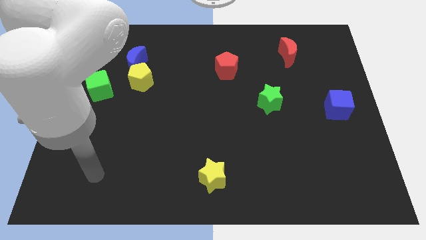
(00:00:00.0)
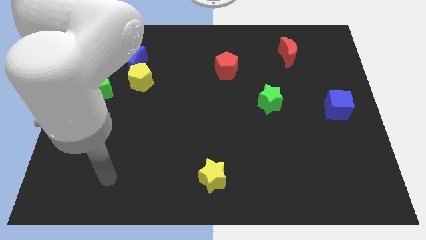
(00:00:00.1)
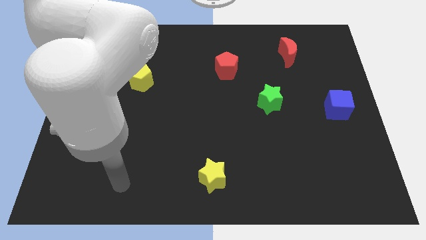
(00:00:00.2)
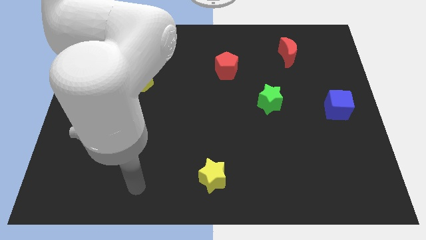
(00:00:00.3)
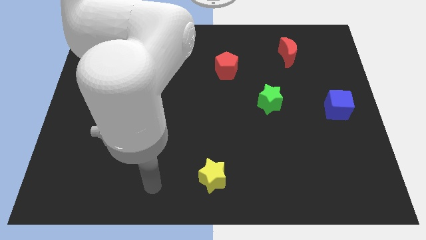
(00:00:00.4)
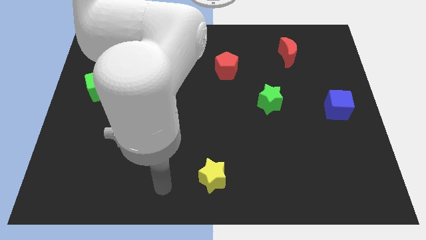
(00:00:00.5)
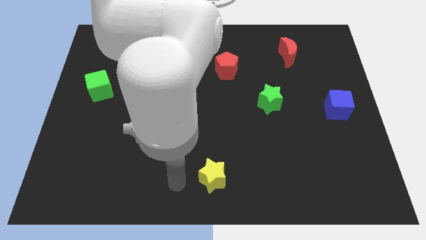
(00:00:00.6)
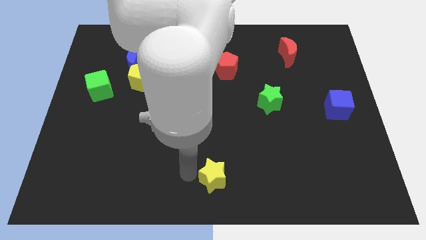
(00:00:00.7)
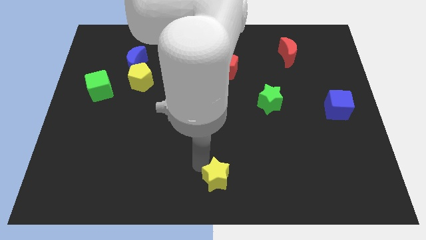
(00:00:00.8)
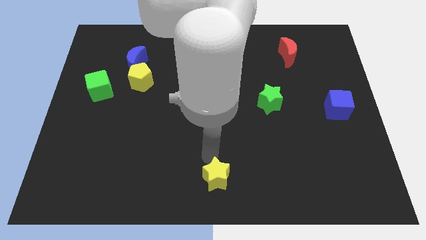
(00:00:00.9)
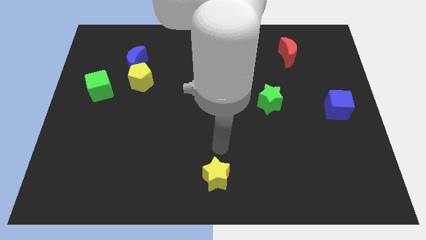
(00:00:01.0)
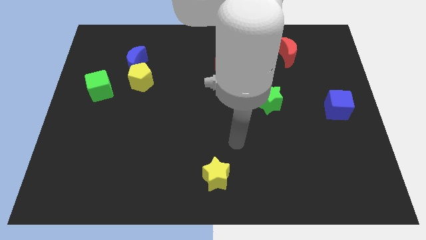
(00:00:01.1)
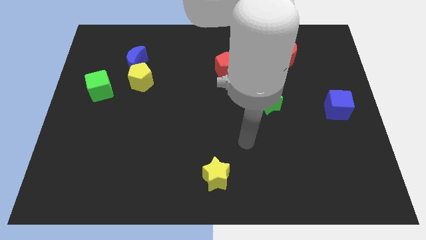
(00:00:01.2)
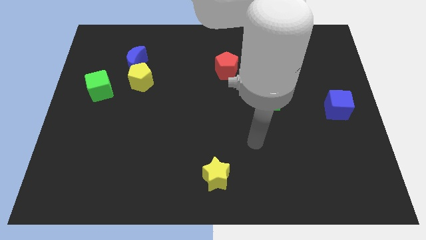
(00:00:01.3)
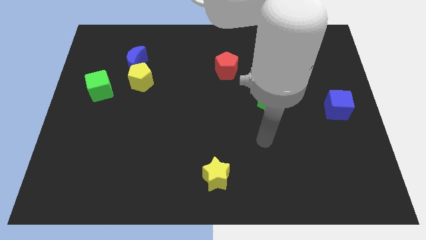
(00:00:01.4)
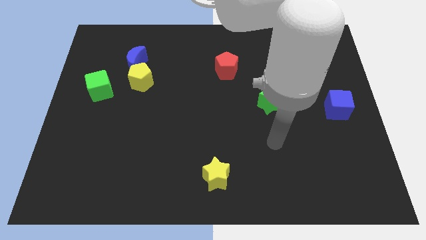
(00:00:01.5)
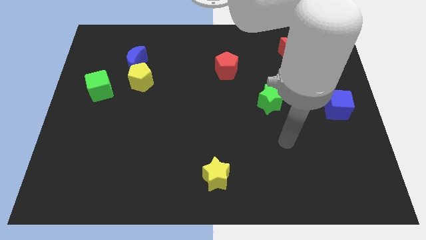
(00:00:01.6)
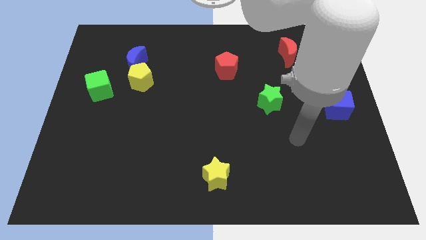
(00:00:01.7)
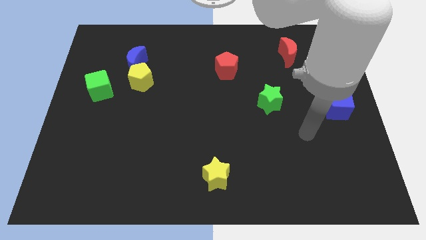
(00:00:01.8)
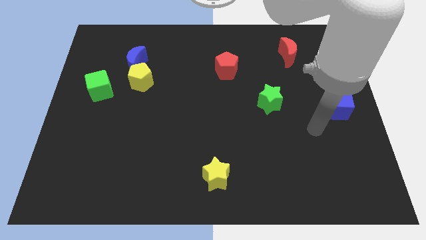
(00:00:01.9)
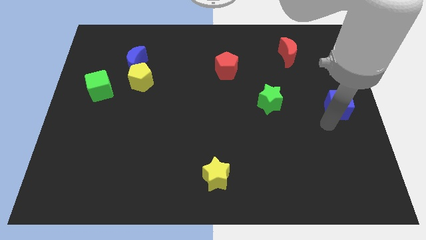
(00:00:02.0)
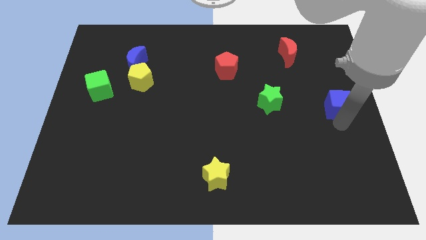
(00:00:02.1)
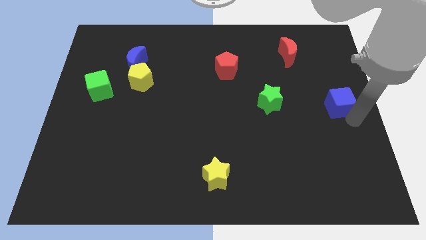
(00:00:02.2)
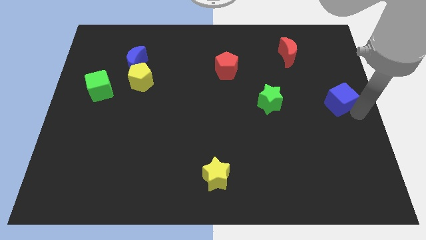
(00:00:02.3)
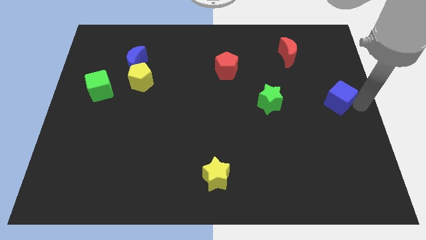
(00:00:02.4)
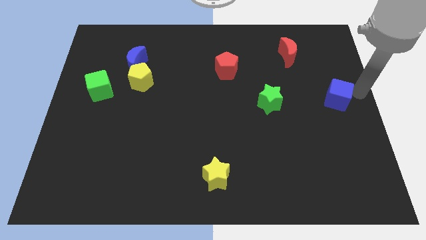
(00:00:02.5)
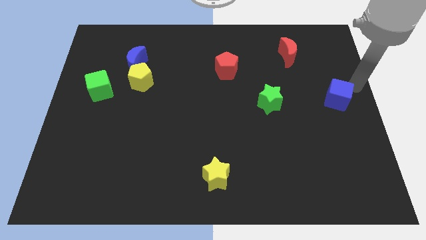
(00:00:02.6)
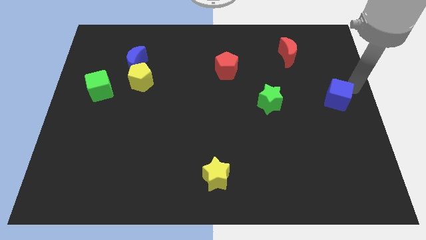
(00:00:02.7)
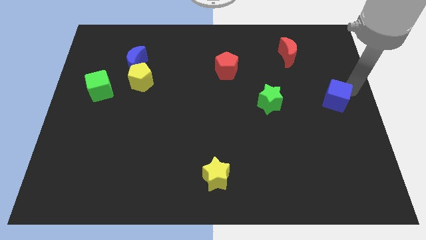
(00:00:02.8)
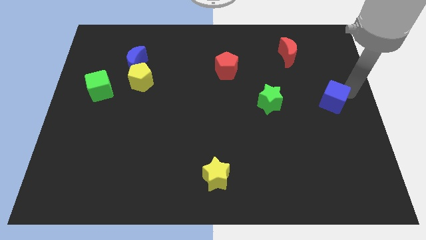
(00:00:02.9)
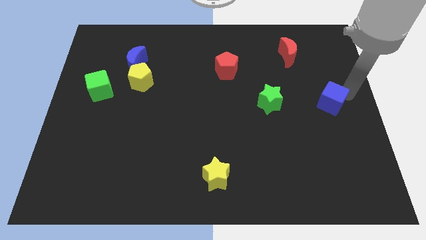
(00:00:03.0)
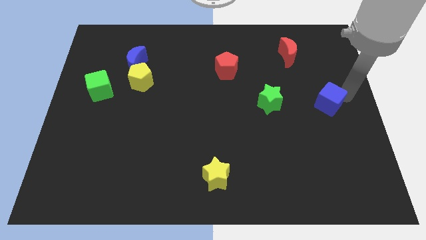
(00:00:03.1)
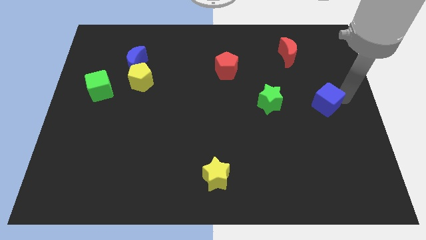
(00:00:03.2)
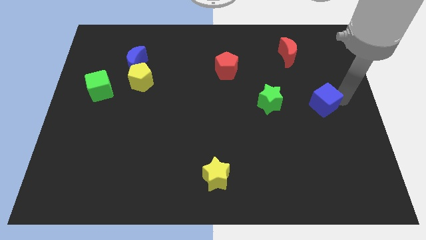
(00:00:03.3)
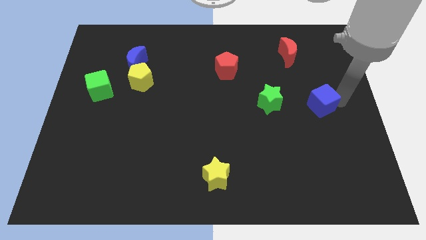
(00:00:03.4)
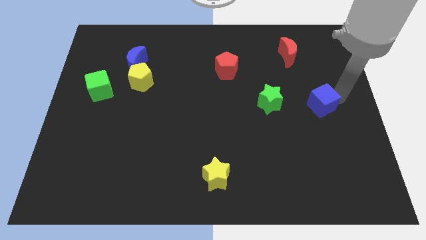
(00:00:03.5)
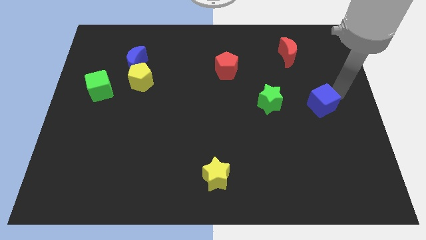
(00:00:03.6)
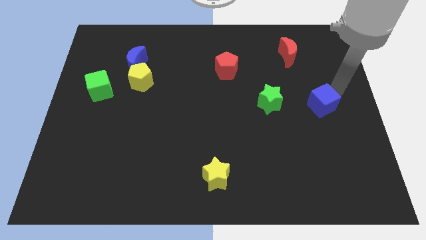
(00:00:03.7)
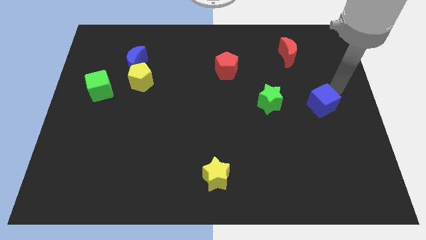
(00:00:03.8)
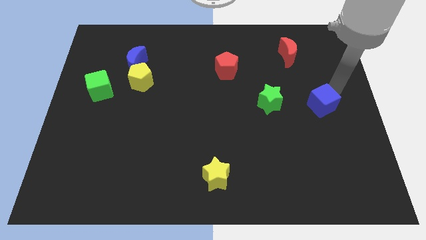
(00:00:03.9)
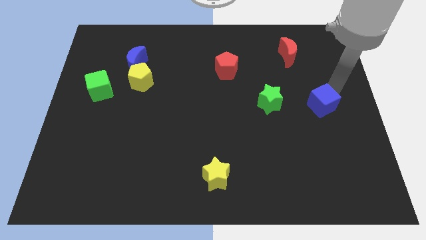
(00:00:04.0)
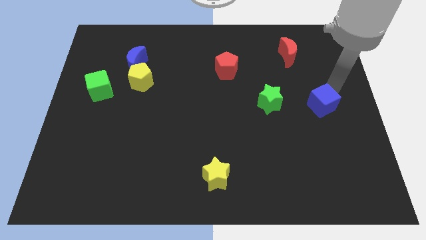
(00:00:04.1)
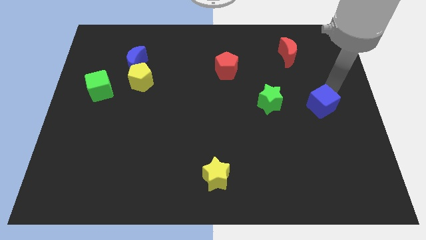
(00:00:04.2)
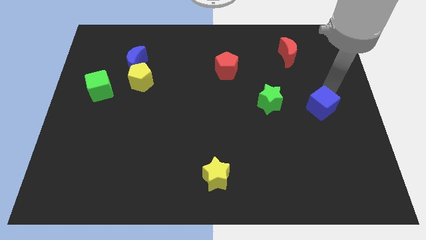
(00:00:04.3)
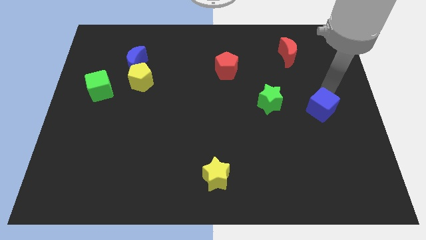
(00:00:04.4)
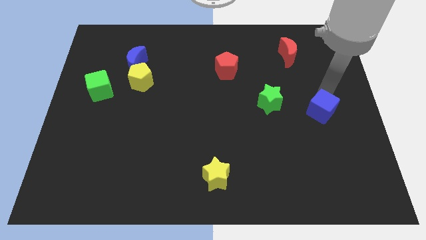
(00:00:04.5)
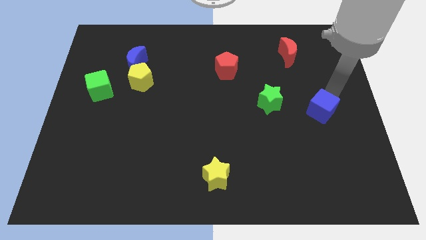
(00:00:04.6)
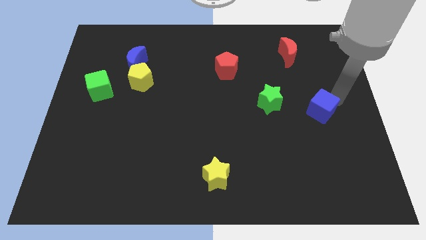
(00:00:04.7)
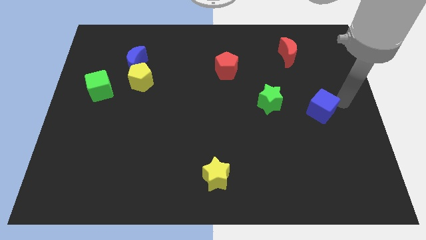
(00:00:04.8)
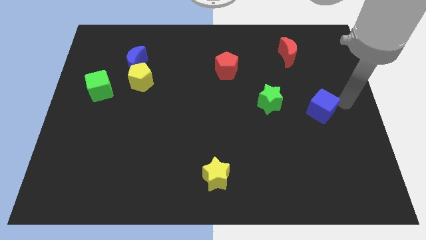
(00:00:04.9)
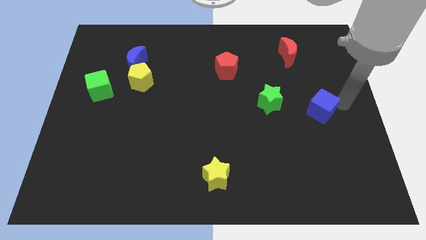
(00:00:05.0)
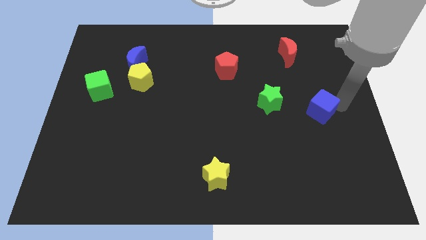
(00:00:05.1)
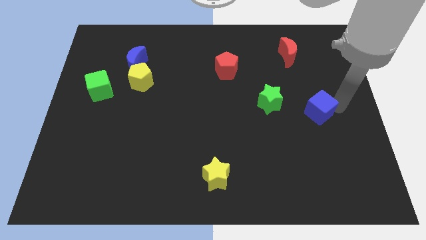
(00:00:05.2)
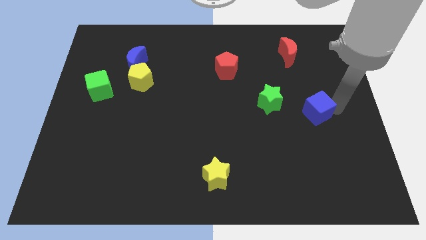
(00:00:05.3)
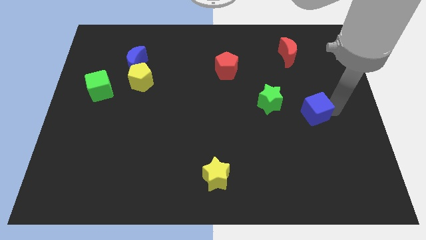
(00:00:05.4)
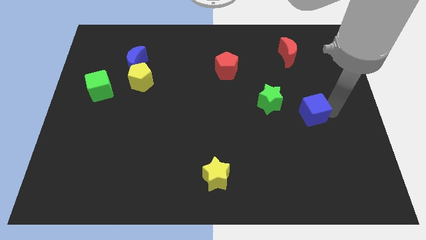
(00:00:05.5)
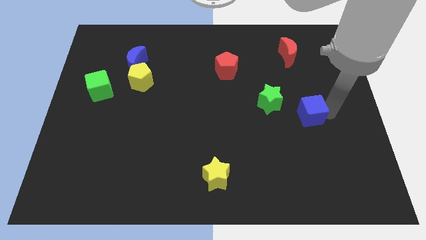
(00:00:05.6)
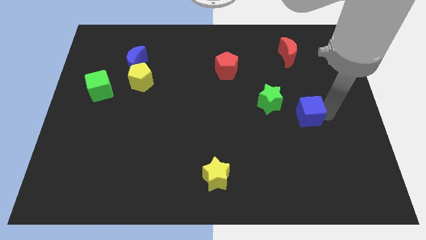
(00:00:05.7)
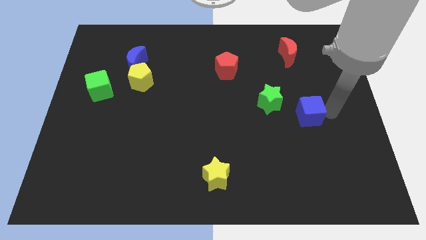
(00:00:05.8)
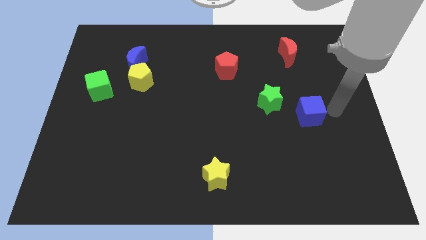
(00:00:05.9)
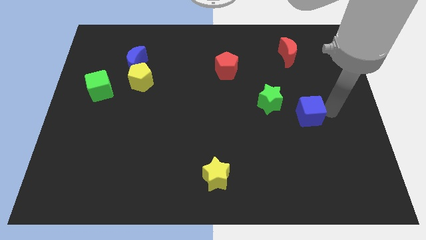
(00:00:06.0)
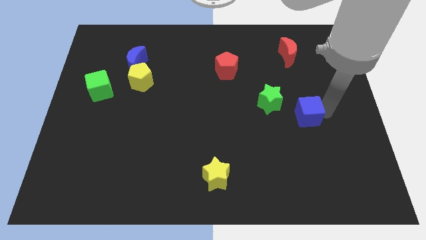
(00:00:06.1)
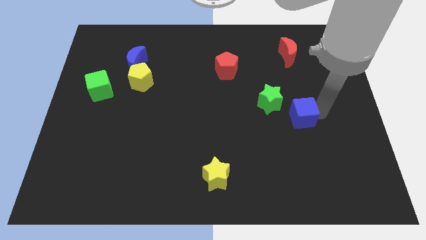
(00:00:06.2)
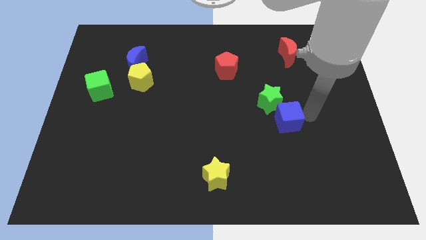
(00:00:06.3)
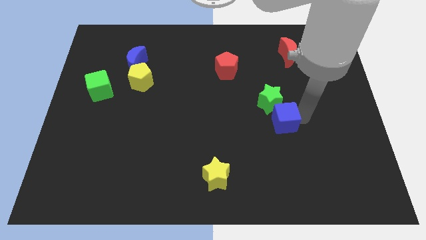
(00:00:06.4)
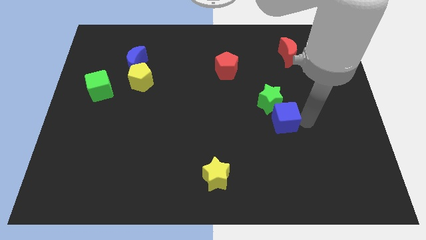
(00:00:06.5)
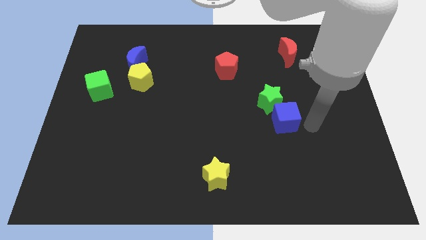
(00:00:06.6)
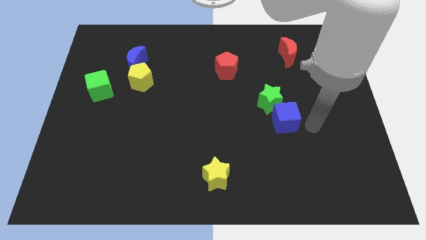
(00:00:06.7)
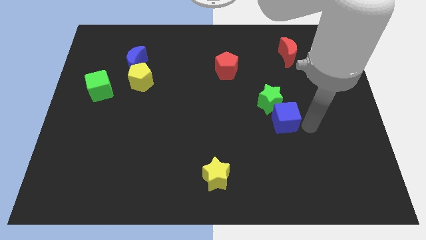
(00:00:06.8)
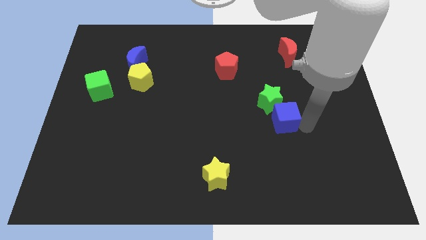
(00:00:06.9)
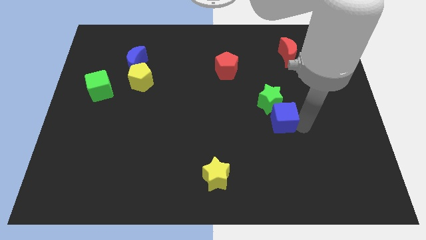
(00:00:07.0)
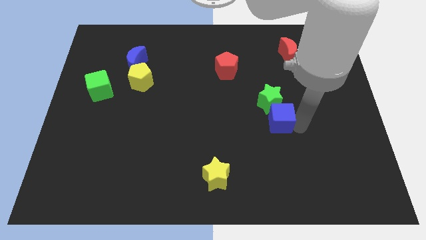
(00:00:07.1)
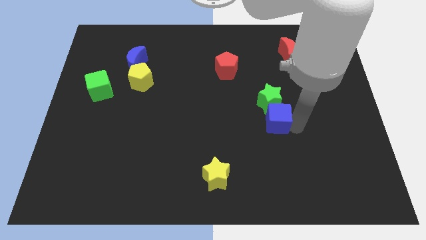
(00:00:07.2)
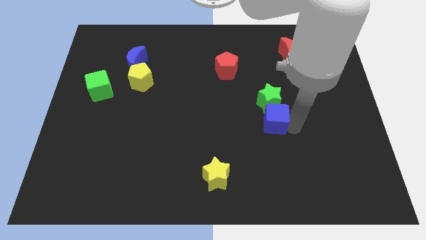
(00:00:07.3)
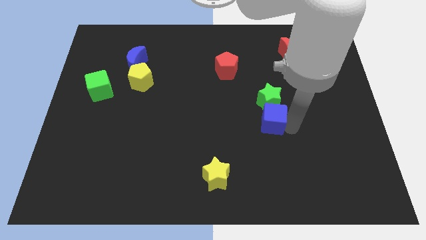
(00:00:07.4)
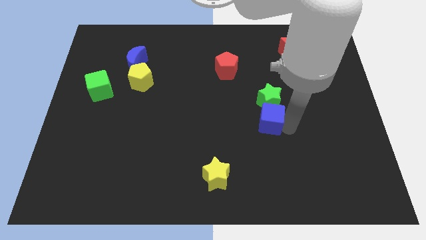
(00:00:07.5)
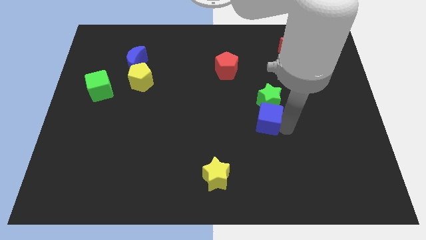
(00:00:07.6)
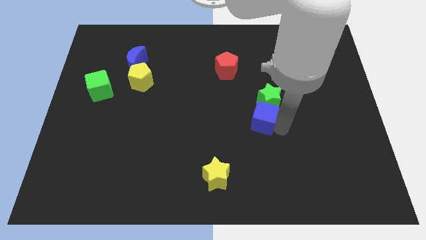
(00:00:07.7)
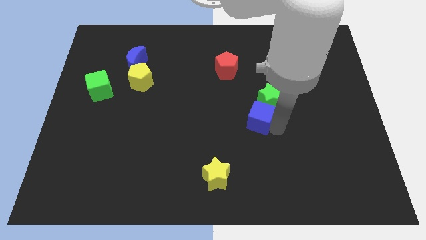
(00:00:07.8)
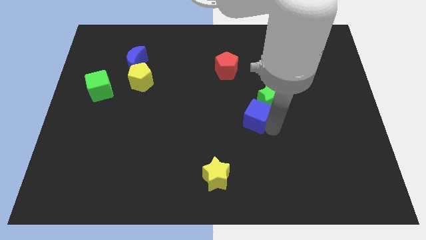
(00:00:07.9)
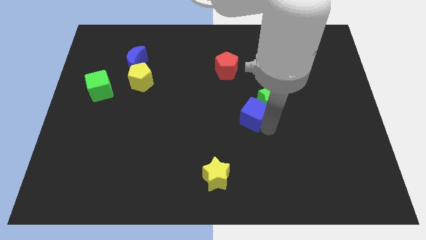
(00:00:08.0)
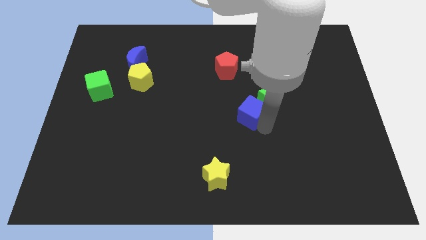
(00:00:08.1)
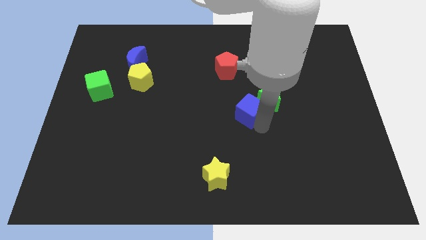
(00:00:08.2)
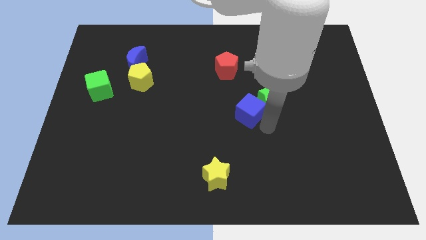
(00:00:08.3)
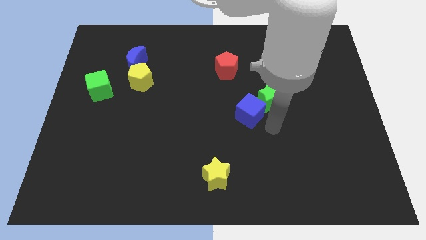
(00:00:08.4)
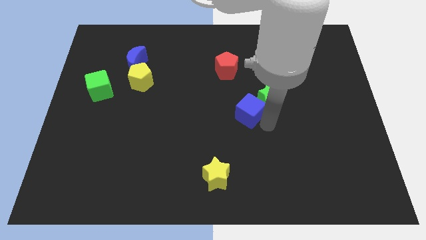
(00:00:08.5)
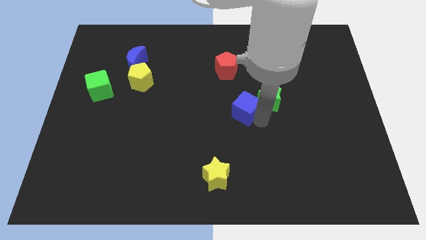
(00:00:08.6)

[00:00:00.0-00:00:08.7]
put the blue cube below the red pentagon
